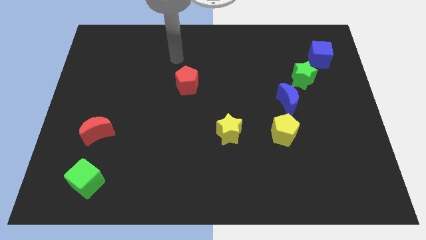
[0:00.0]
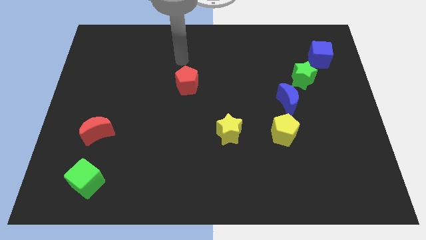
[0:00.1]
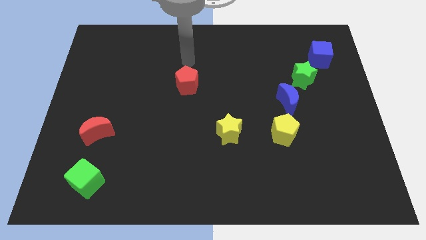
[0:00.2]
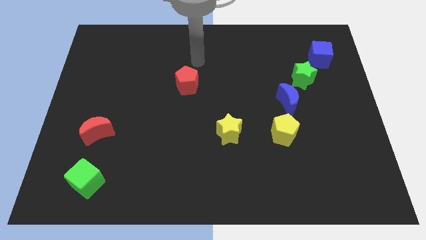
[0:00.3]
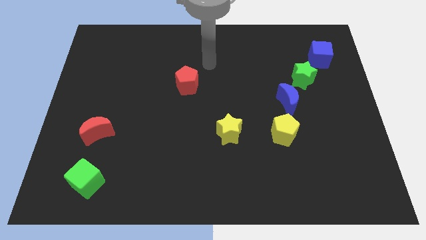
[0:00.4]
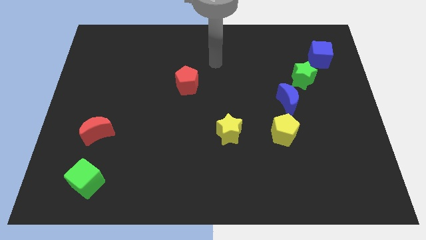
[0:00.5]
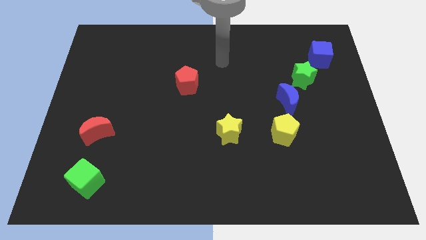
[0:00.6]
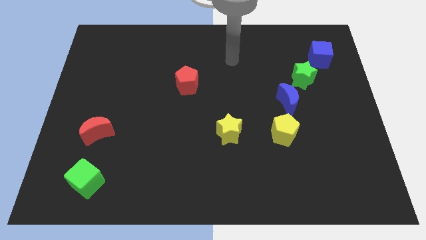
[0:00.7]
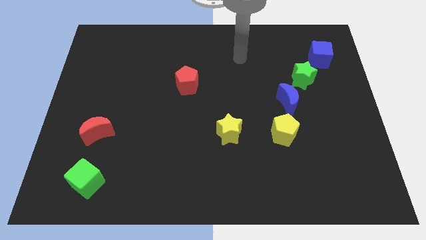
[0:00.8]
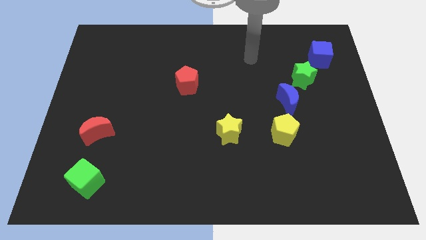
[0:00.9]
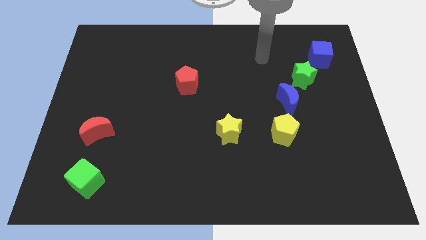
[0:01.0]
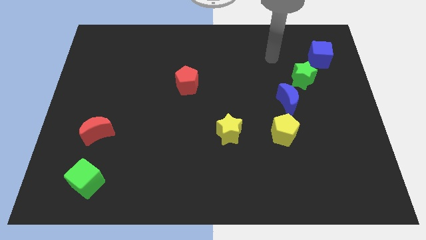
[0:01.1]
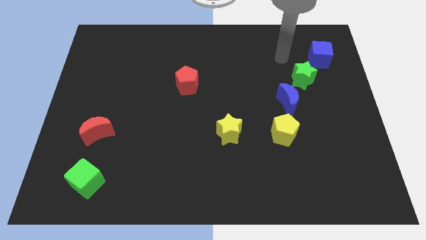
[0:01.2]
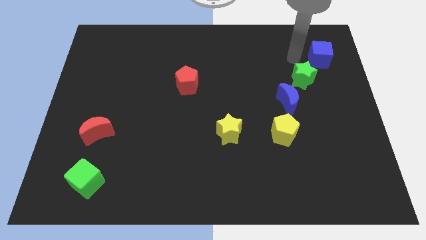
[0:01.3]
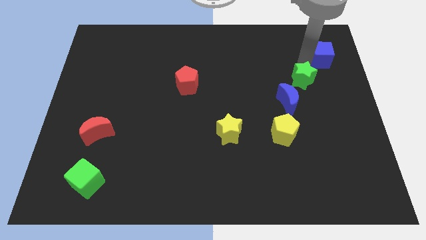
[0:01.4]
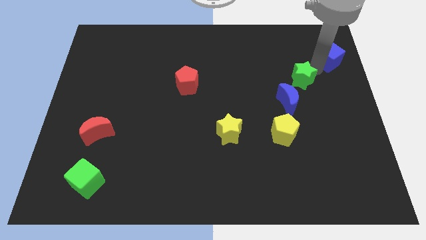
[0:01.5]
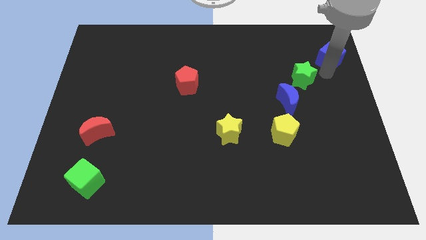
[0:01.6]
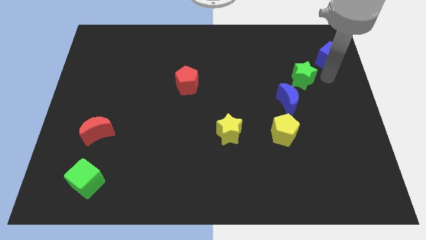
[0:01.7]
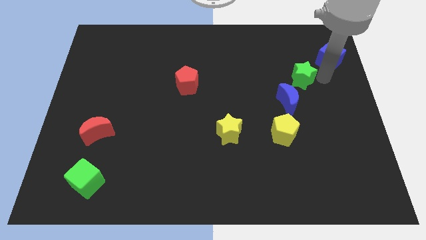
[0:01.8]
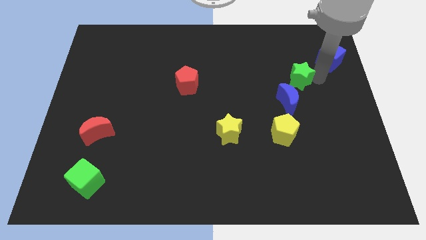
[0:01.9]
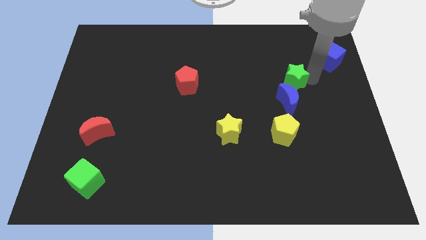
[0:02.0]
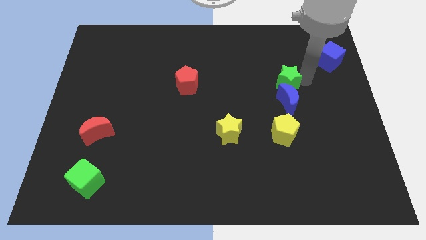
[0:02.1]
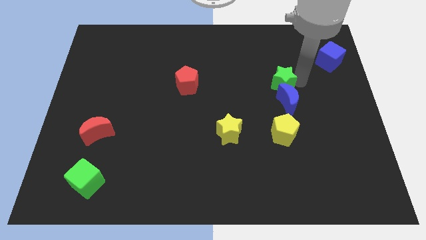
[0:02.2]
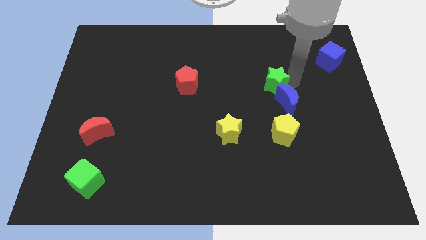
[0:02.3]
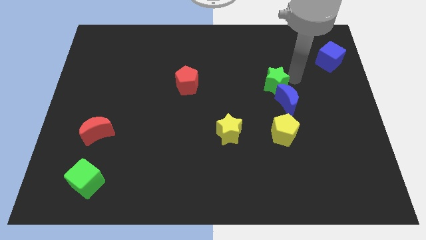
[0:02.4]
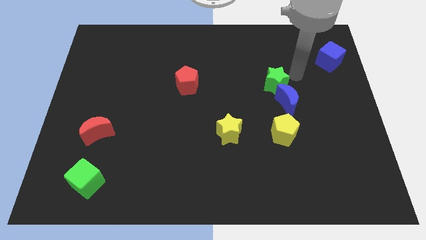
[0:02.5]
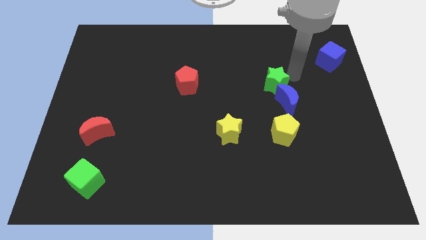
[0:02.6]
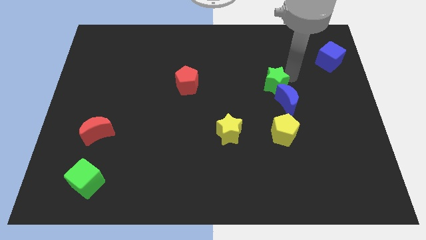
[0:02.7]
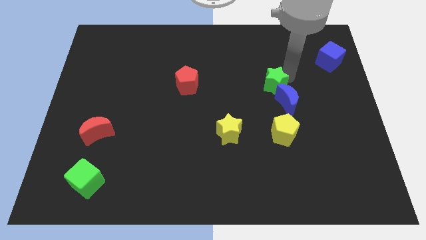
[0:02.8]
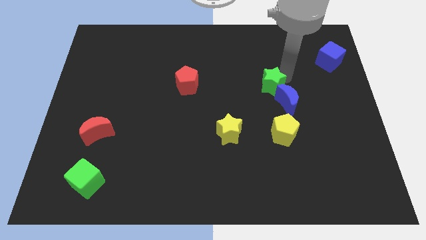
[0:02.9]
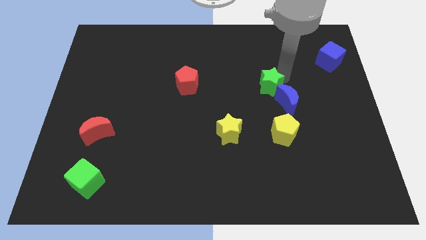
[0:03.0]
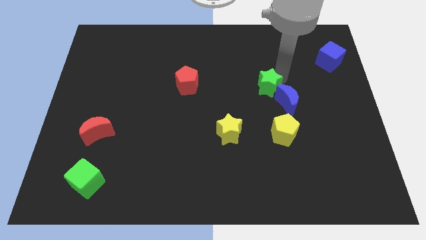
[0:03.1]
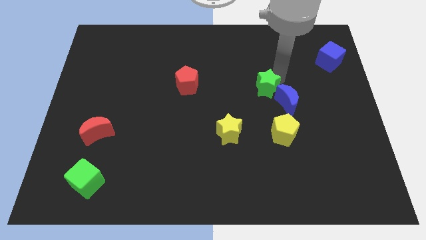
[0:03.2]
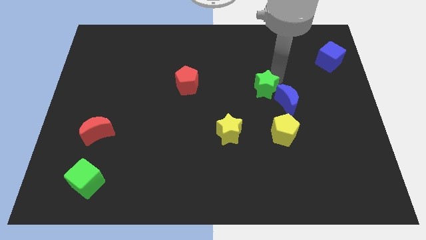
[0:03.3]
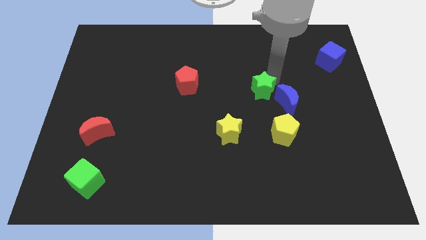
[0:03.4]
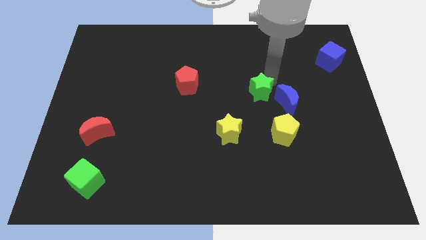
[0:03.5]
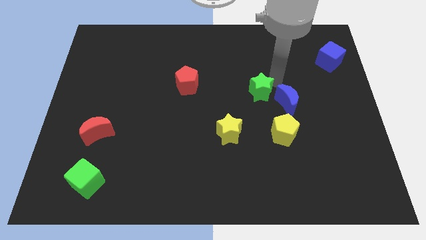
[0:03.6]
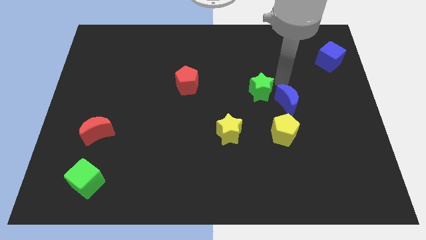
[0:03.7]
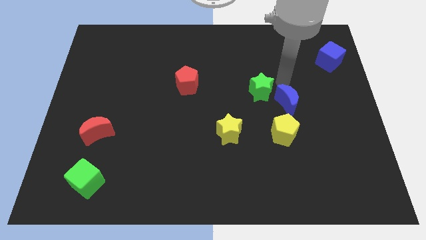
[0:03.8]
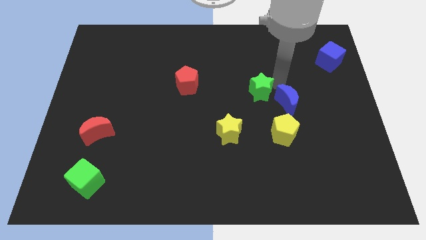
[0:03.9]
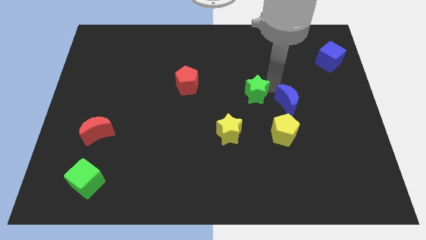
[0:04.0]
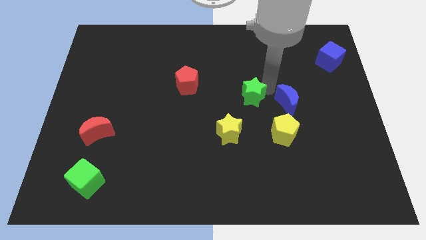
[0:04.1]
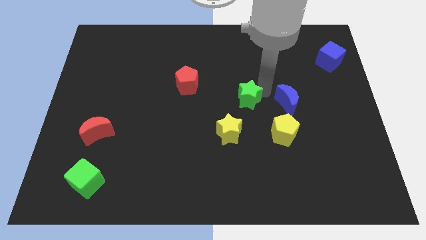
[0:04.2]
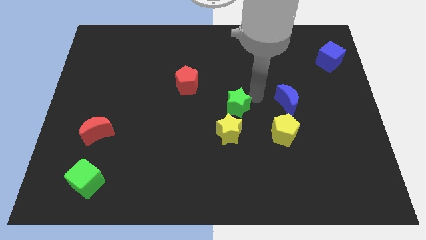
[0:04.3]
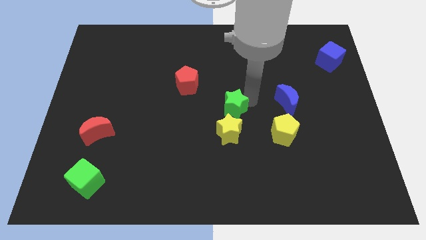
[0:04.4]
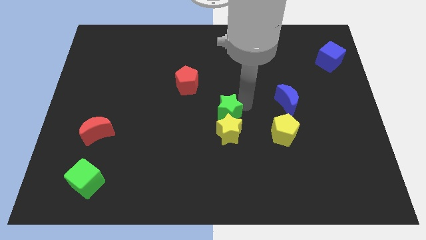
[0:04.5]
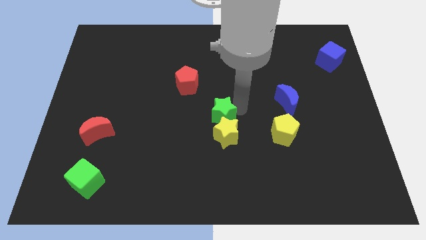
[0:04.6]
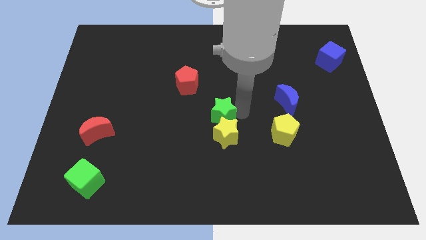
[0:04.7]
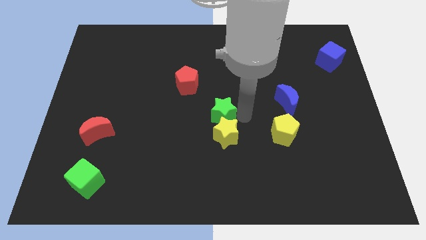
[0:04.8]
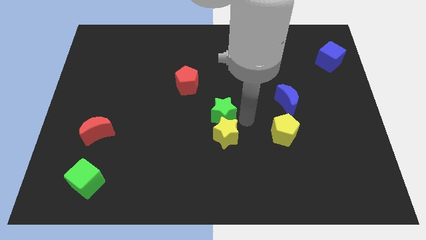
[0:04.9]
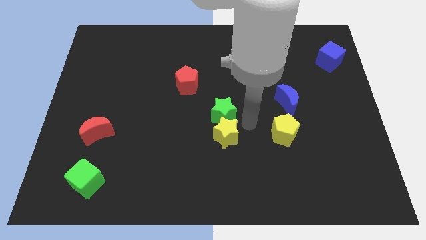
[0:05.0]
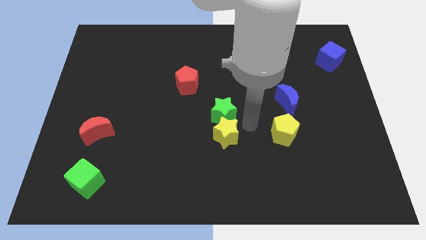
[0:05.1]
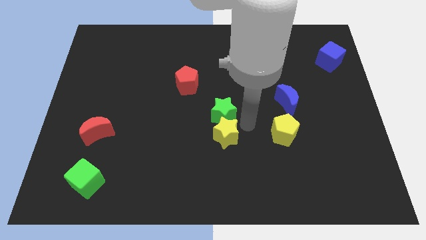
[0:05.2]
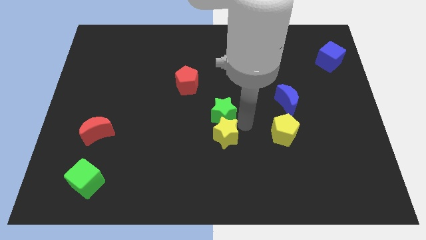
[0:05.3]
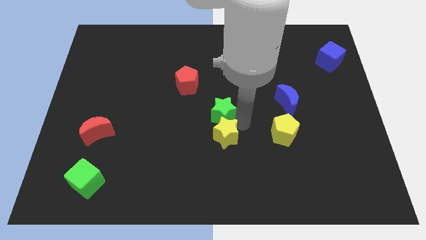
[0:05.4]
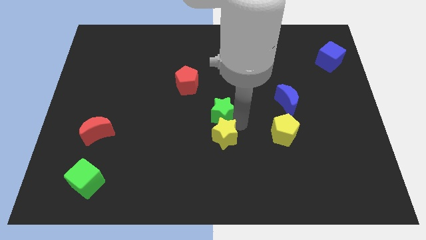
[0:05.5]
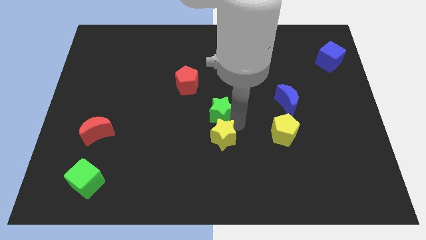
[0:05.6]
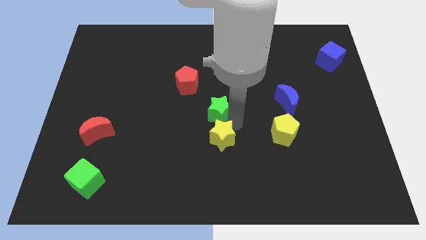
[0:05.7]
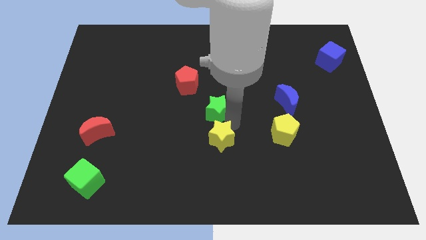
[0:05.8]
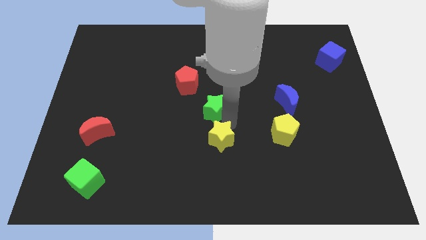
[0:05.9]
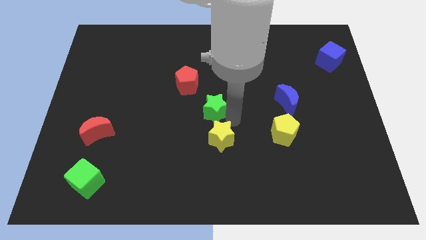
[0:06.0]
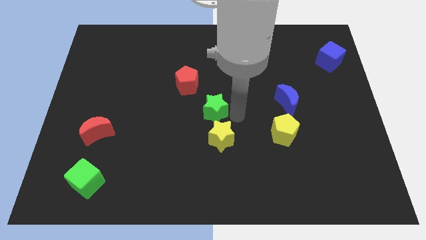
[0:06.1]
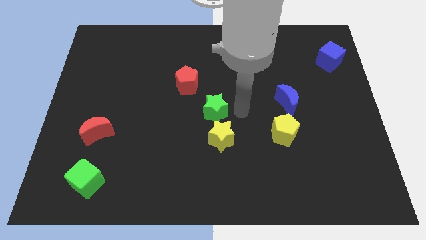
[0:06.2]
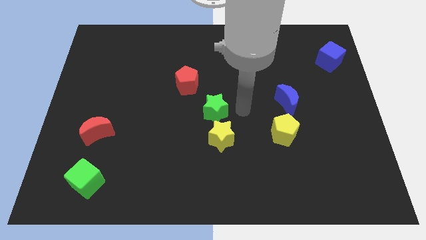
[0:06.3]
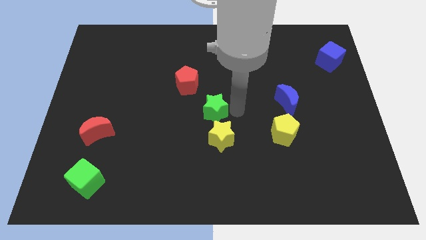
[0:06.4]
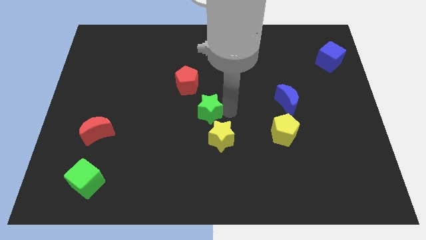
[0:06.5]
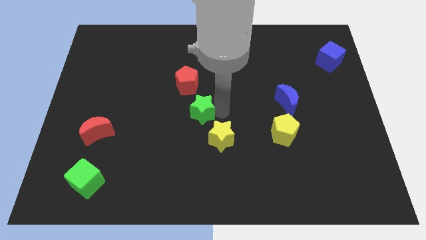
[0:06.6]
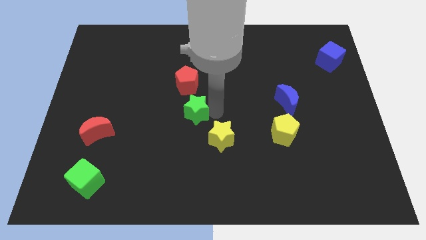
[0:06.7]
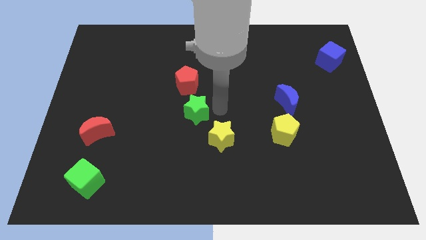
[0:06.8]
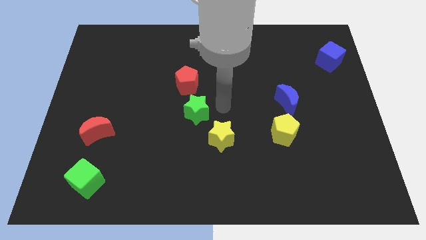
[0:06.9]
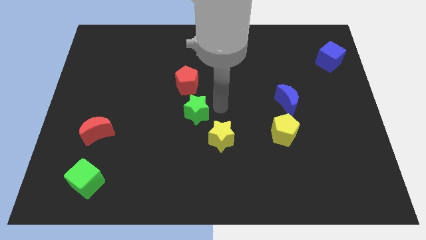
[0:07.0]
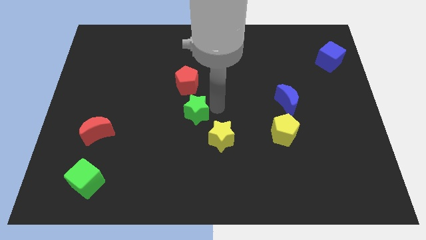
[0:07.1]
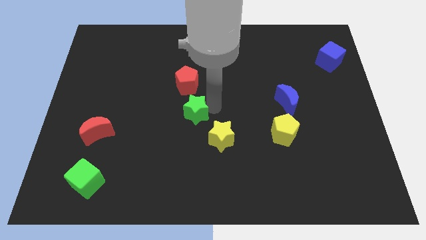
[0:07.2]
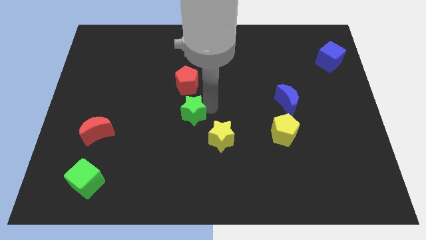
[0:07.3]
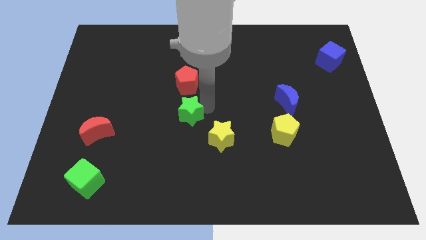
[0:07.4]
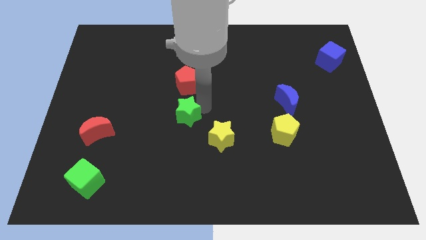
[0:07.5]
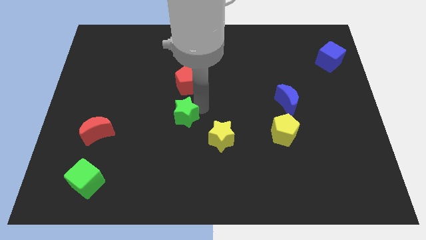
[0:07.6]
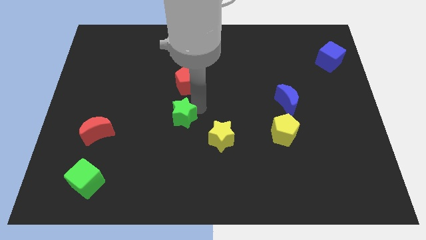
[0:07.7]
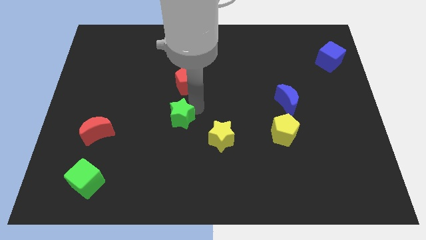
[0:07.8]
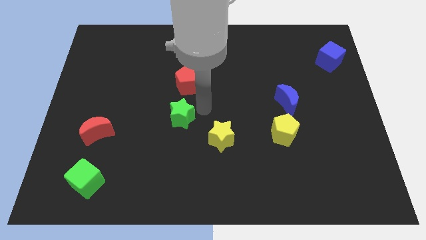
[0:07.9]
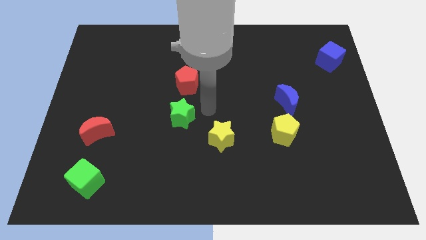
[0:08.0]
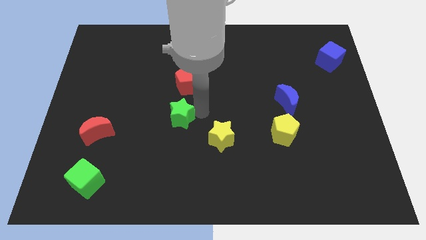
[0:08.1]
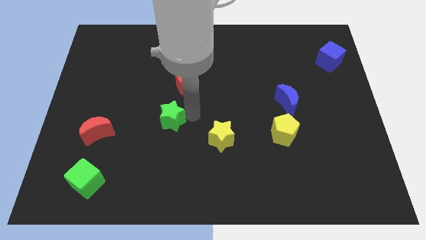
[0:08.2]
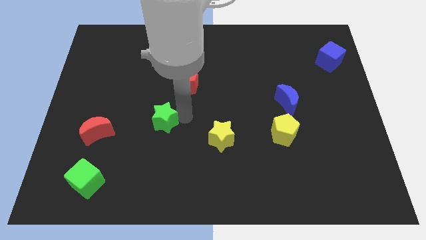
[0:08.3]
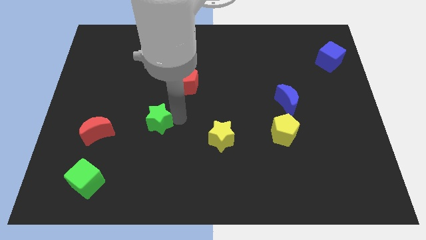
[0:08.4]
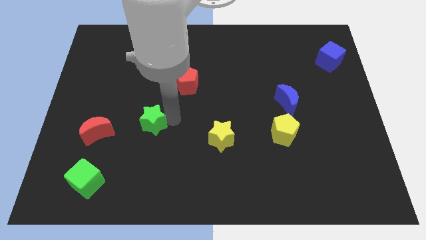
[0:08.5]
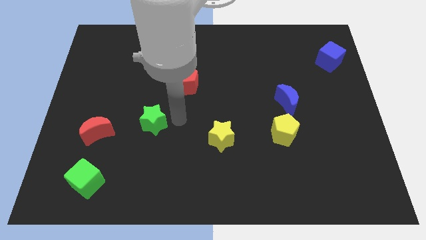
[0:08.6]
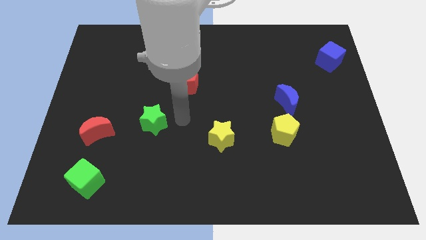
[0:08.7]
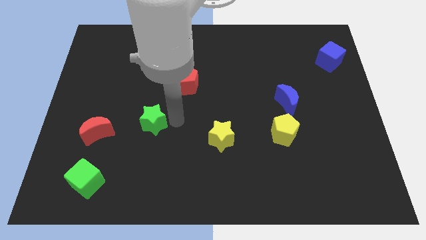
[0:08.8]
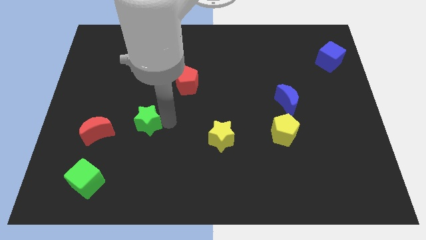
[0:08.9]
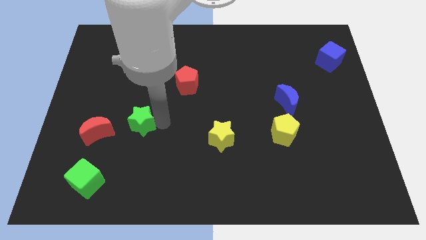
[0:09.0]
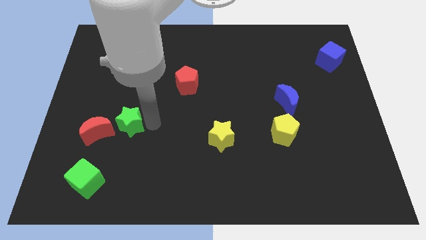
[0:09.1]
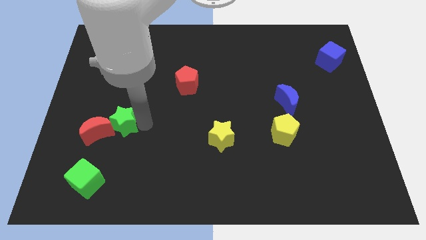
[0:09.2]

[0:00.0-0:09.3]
move the green star close to the red moon
